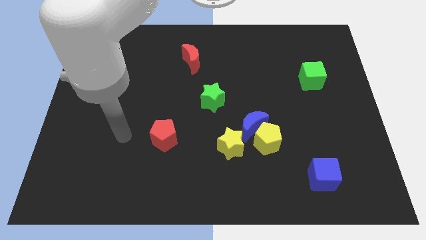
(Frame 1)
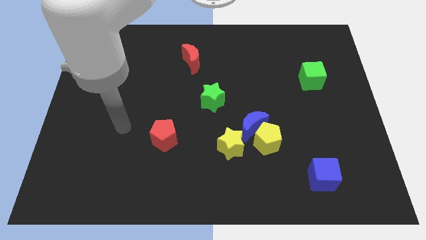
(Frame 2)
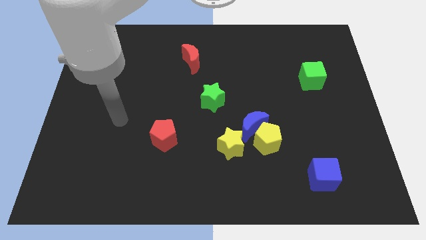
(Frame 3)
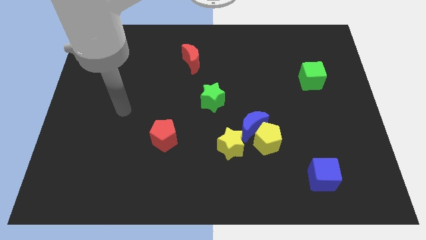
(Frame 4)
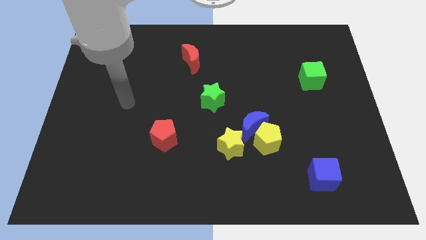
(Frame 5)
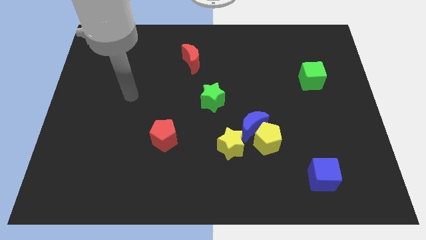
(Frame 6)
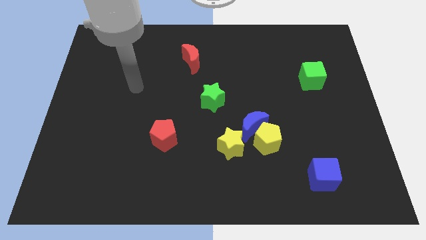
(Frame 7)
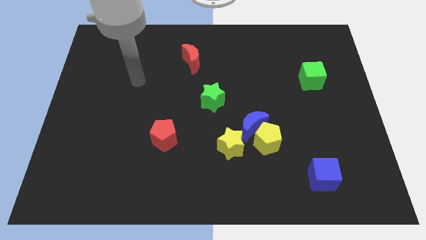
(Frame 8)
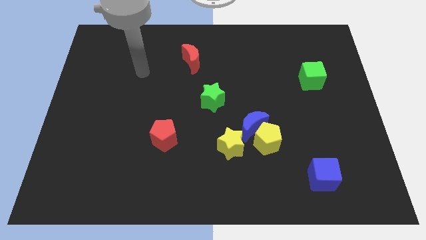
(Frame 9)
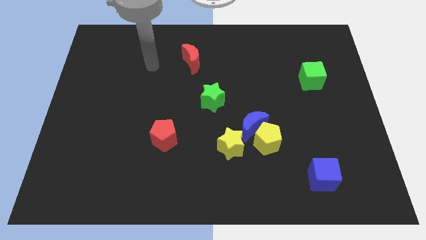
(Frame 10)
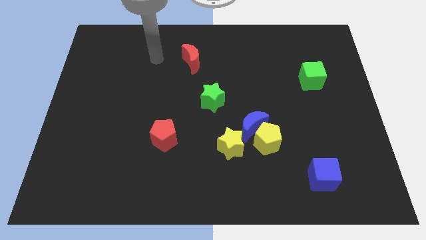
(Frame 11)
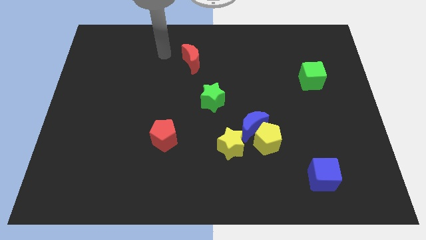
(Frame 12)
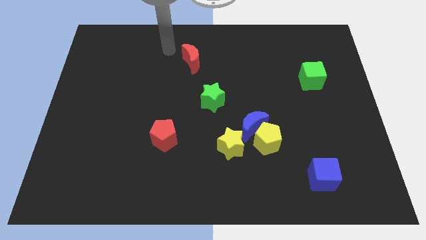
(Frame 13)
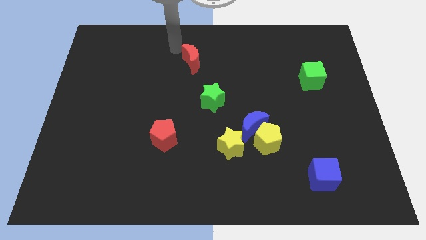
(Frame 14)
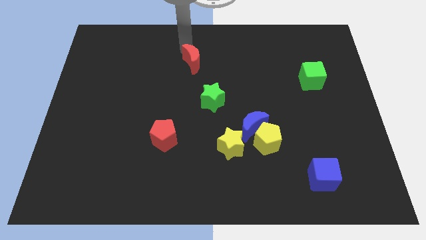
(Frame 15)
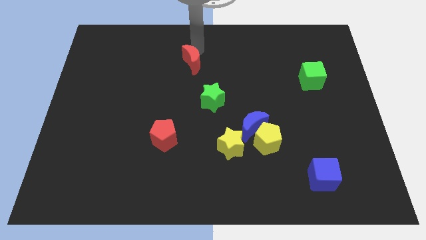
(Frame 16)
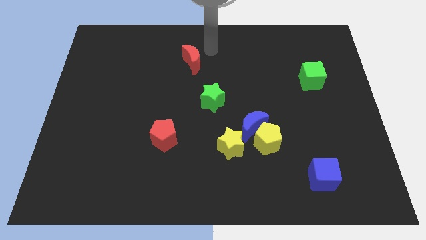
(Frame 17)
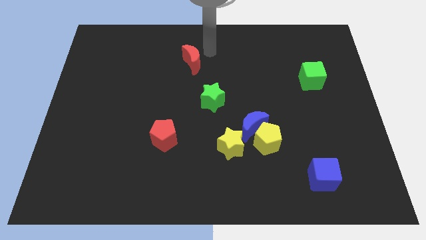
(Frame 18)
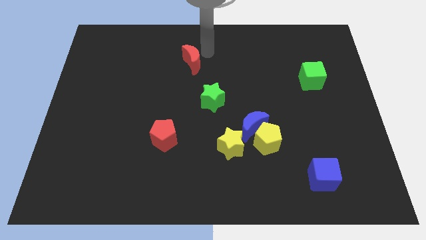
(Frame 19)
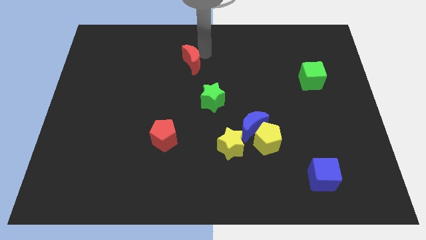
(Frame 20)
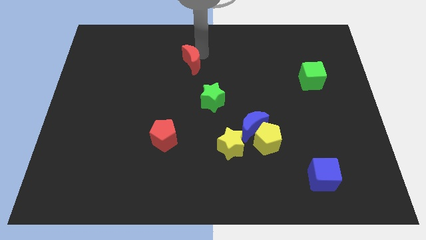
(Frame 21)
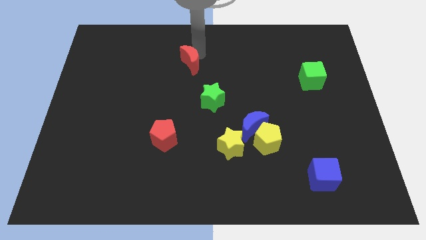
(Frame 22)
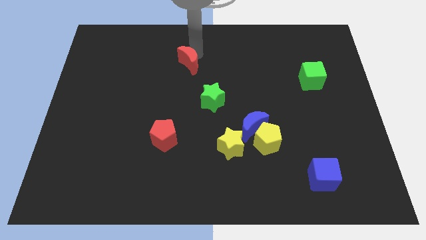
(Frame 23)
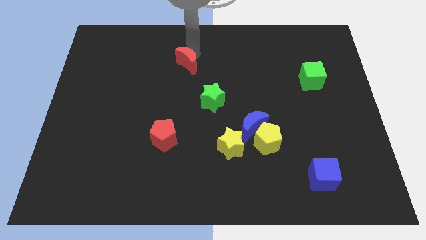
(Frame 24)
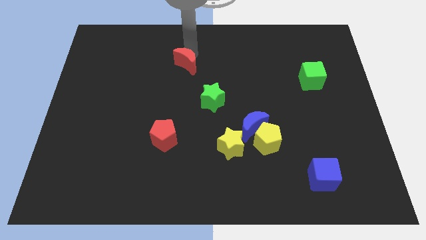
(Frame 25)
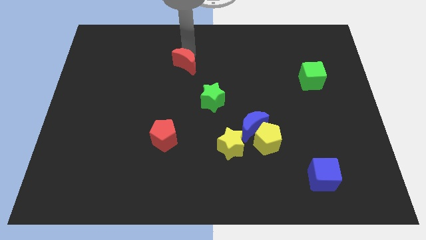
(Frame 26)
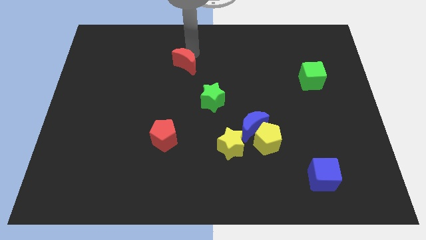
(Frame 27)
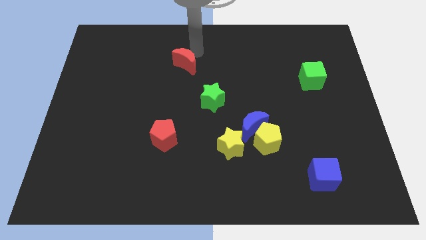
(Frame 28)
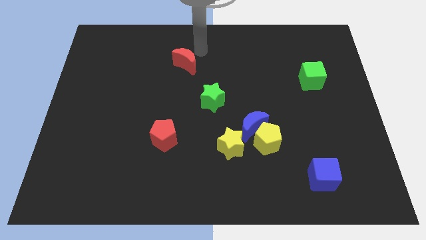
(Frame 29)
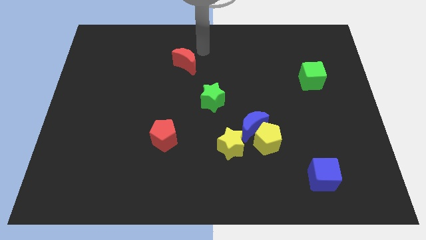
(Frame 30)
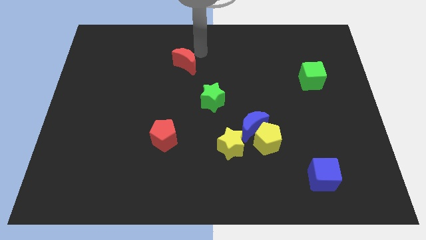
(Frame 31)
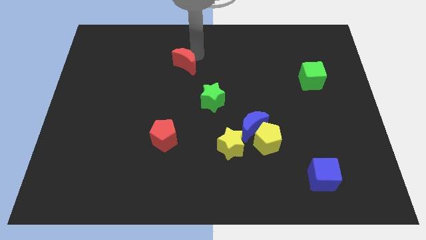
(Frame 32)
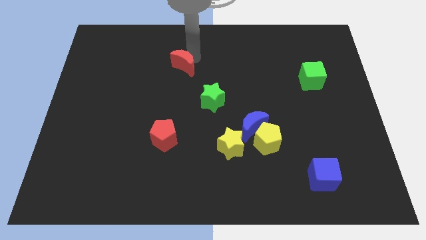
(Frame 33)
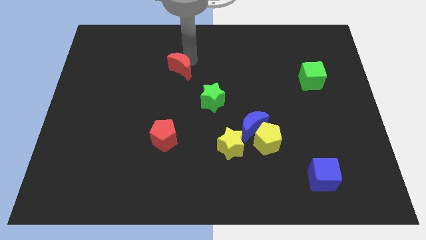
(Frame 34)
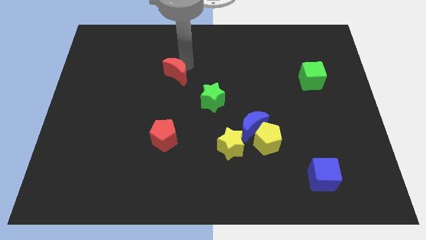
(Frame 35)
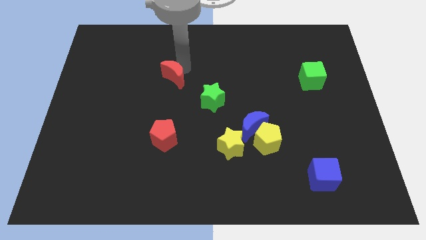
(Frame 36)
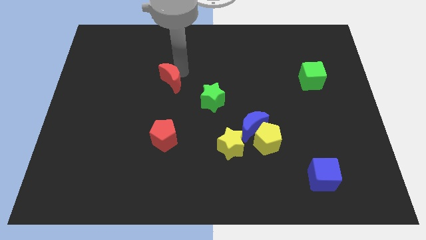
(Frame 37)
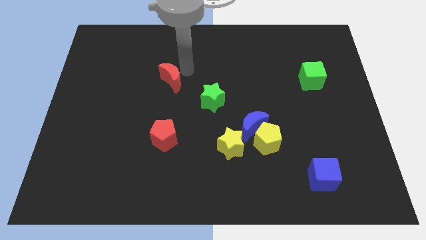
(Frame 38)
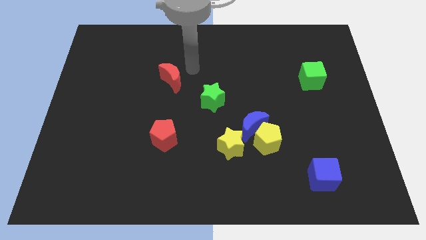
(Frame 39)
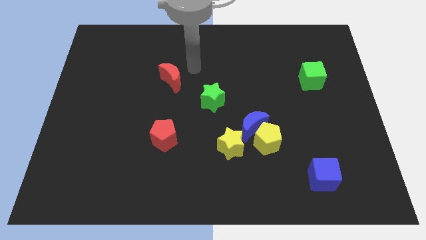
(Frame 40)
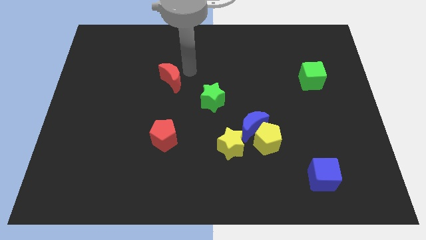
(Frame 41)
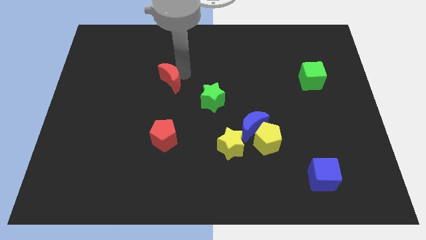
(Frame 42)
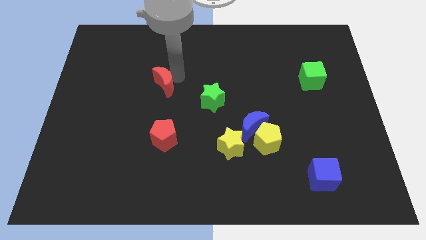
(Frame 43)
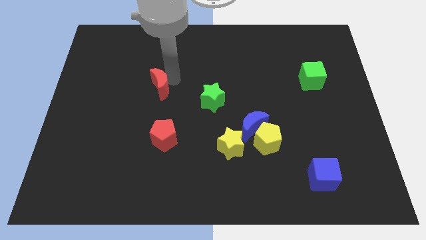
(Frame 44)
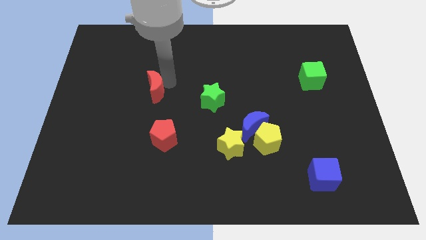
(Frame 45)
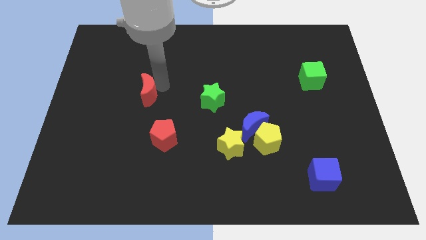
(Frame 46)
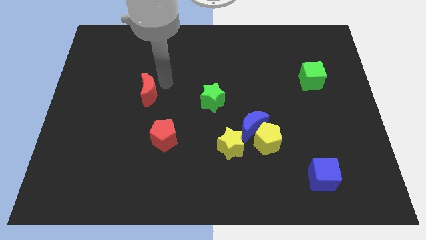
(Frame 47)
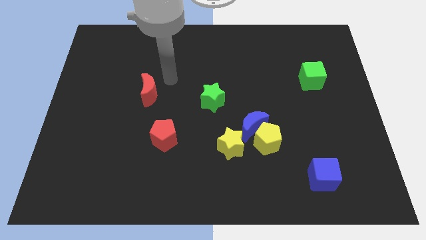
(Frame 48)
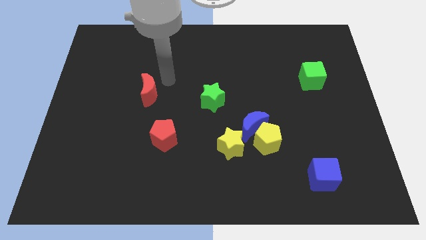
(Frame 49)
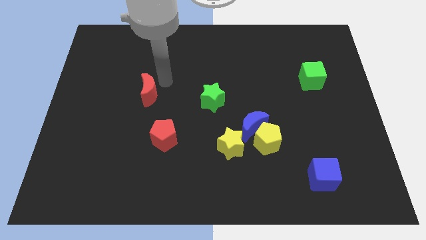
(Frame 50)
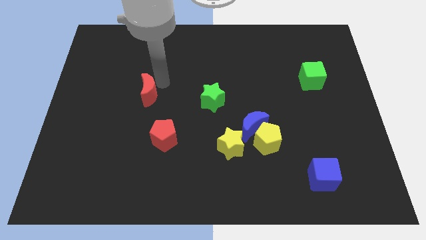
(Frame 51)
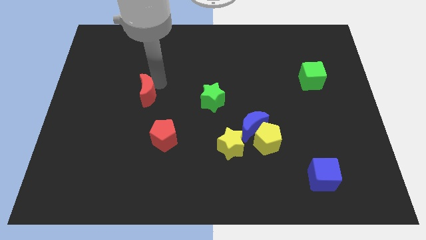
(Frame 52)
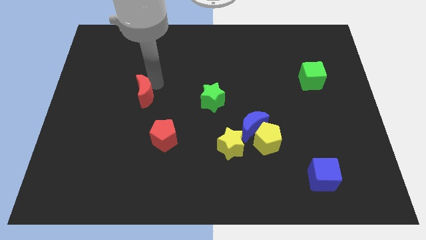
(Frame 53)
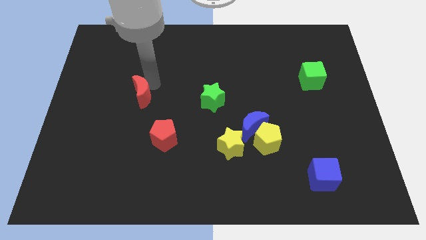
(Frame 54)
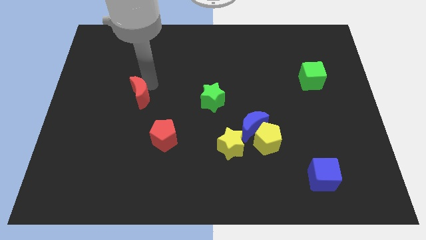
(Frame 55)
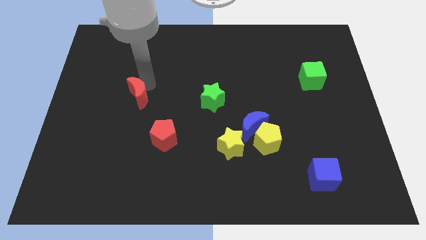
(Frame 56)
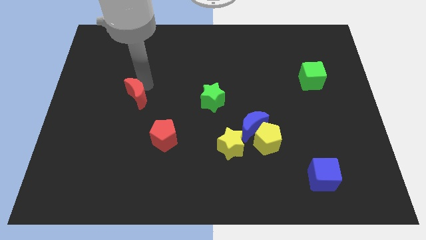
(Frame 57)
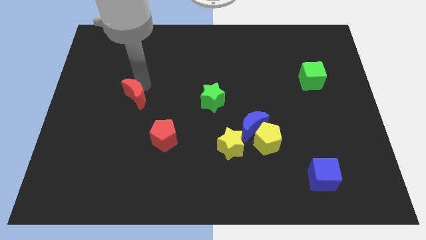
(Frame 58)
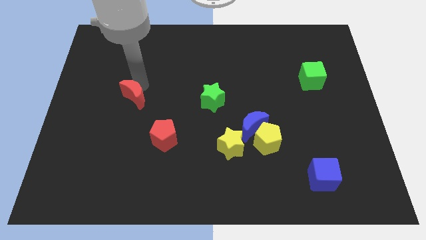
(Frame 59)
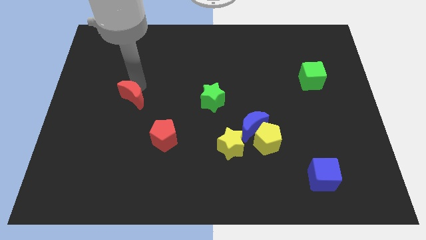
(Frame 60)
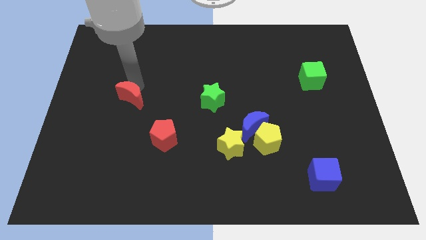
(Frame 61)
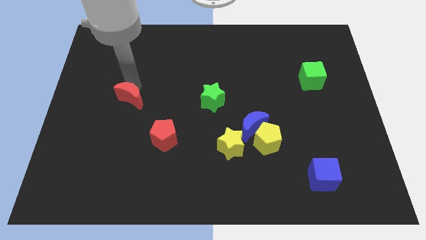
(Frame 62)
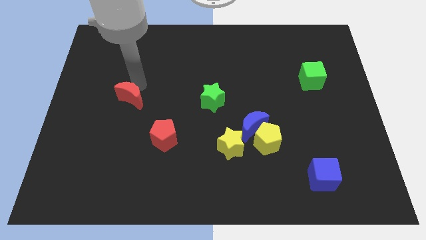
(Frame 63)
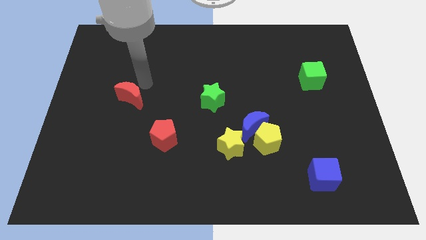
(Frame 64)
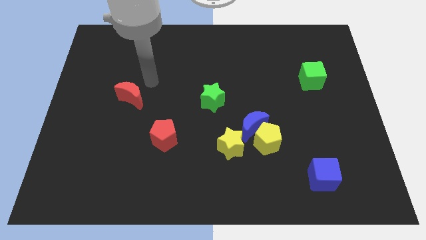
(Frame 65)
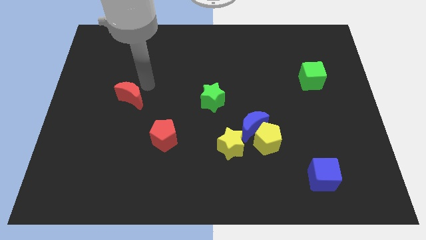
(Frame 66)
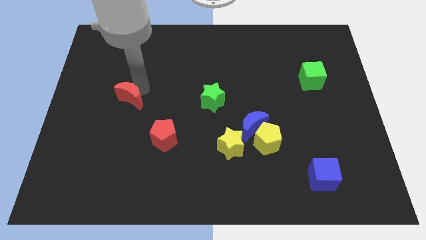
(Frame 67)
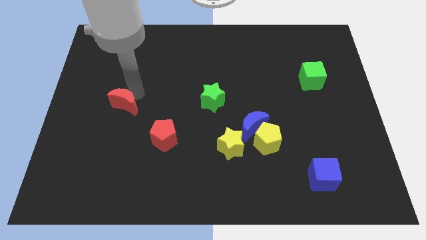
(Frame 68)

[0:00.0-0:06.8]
push the red moon downwards and to the left diagonally

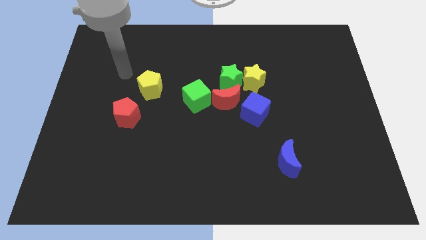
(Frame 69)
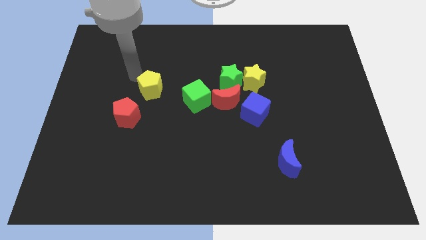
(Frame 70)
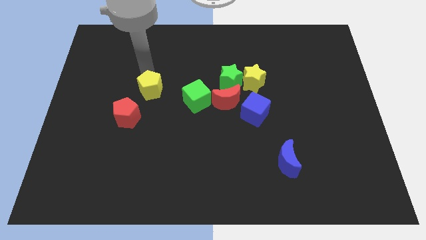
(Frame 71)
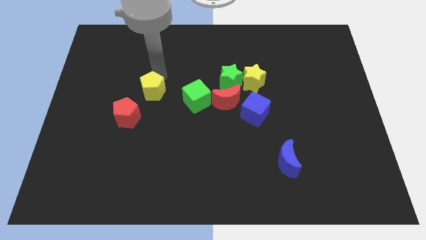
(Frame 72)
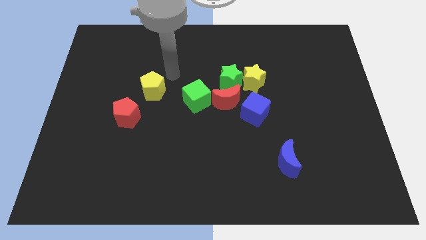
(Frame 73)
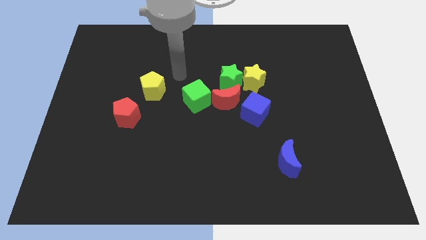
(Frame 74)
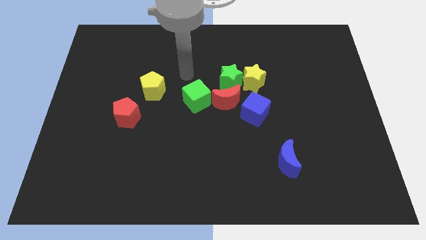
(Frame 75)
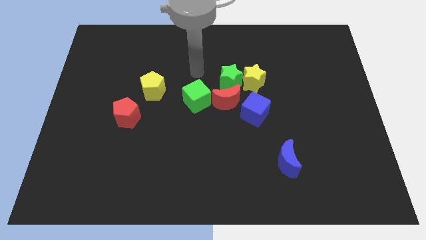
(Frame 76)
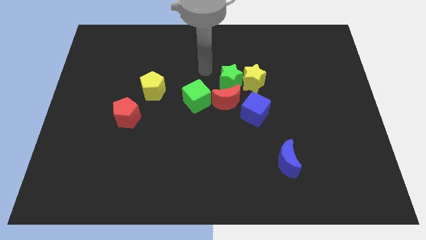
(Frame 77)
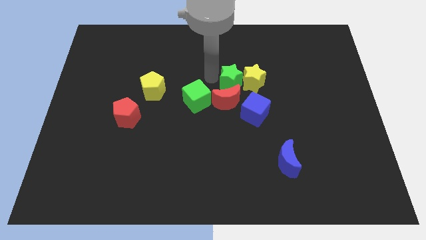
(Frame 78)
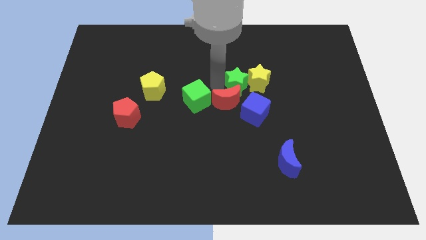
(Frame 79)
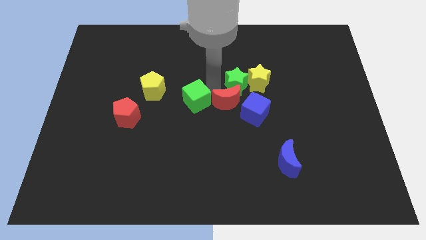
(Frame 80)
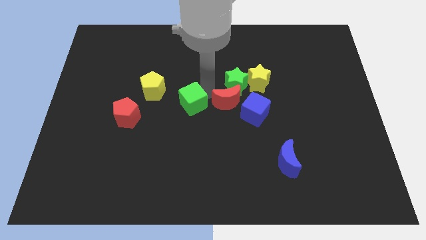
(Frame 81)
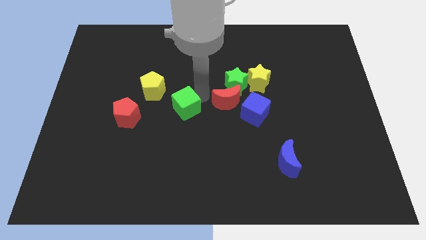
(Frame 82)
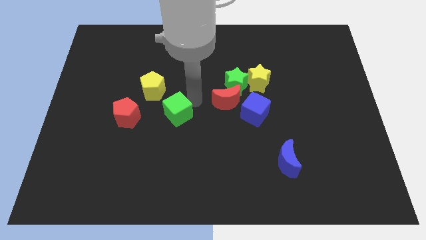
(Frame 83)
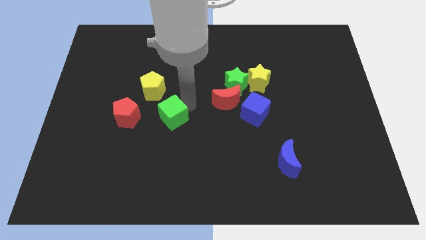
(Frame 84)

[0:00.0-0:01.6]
push the green cube a little bit down and then left

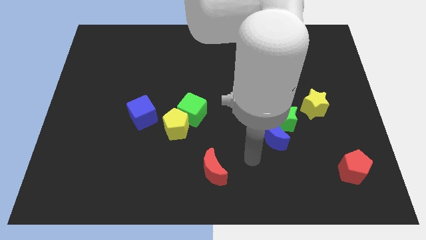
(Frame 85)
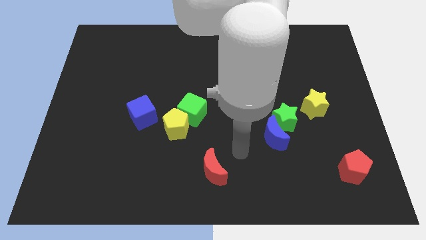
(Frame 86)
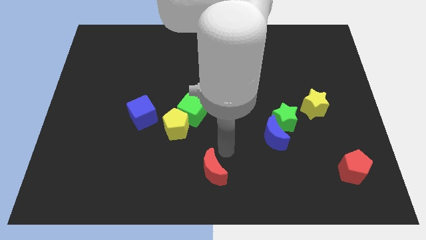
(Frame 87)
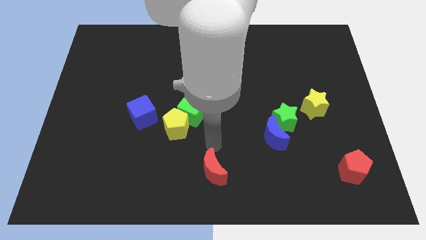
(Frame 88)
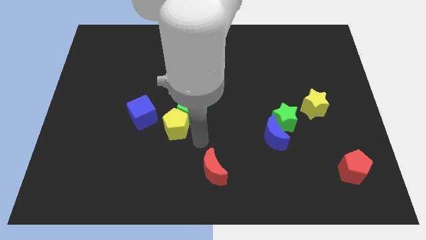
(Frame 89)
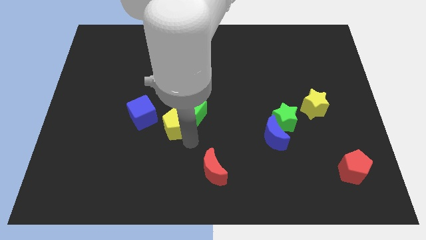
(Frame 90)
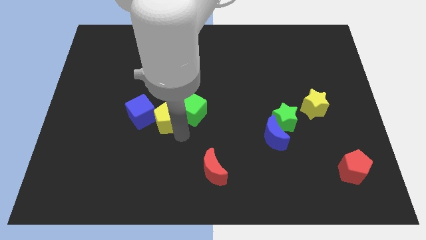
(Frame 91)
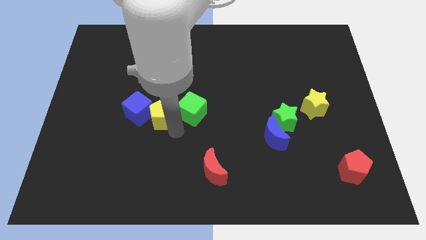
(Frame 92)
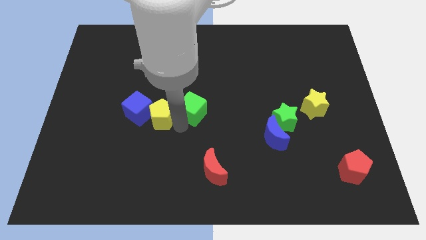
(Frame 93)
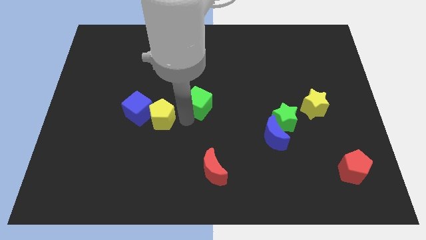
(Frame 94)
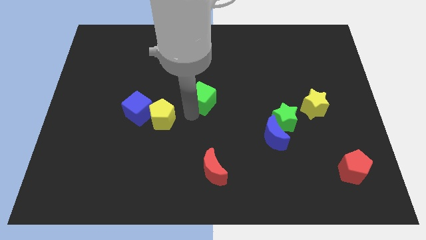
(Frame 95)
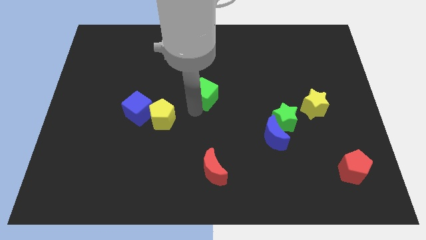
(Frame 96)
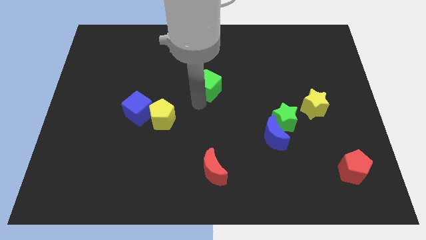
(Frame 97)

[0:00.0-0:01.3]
slightly move the green cube diagonally up and to the right
